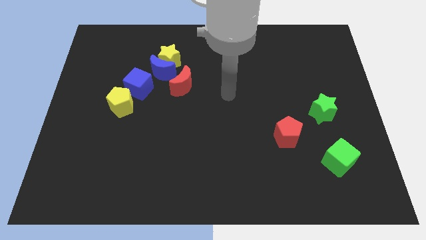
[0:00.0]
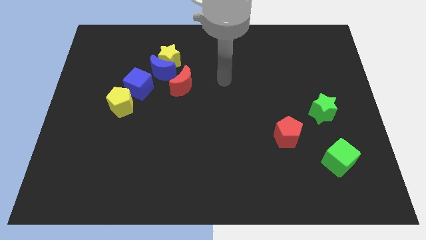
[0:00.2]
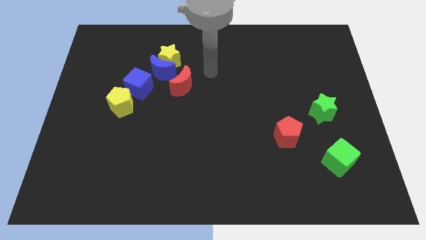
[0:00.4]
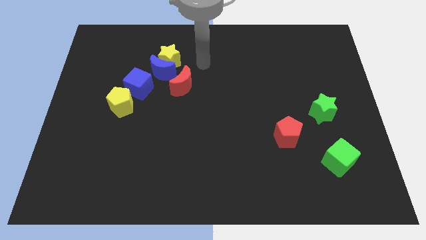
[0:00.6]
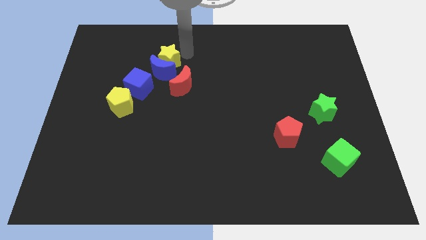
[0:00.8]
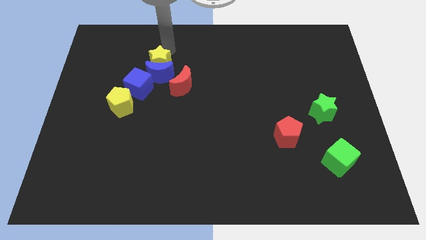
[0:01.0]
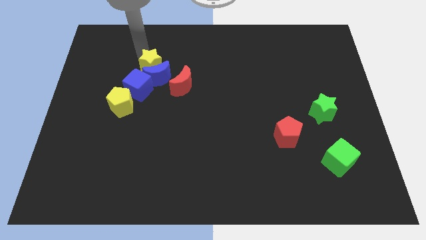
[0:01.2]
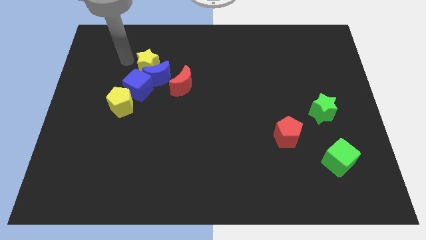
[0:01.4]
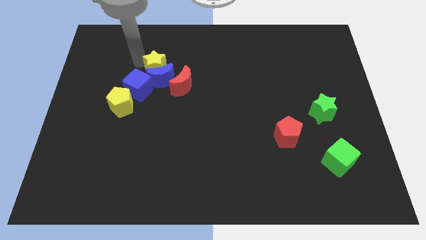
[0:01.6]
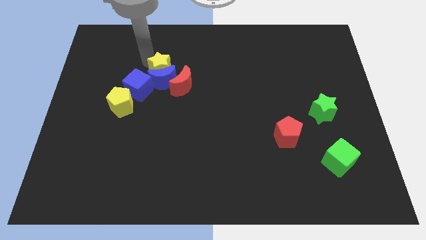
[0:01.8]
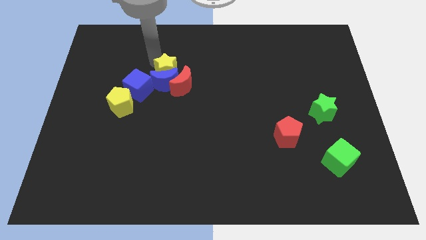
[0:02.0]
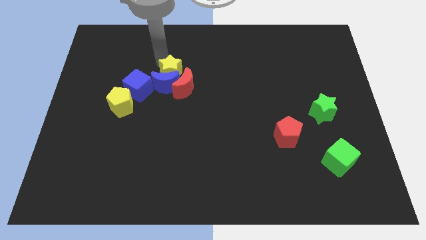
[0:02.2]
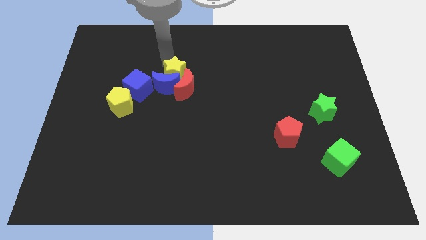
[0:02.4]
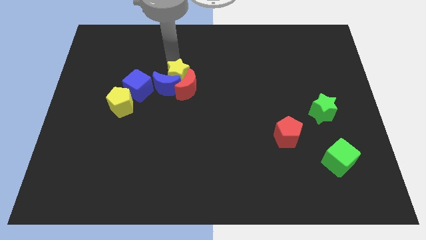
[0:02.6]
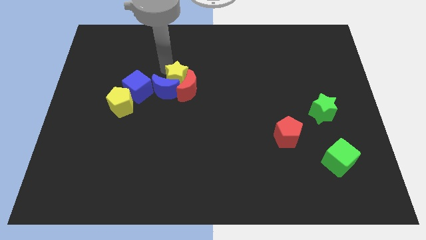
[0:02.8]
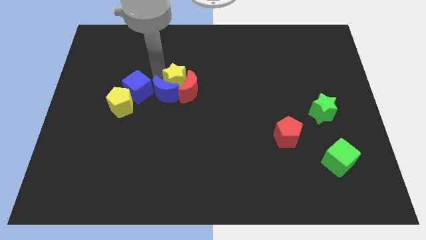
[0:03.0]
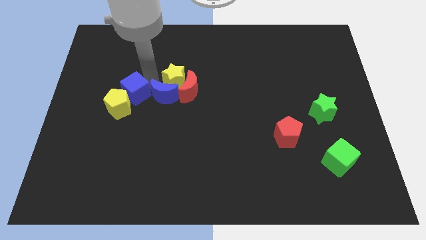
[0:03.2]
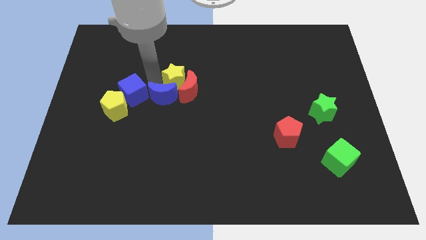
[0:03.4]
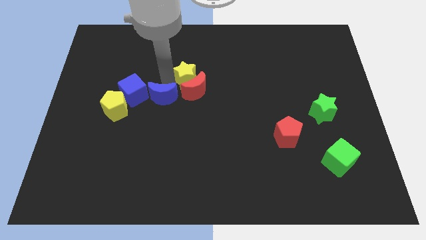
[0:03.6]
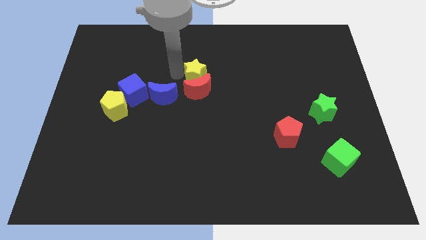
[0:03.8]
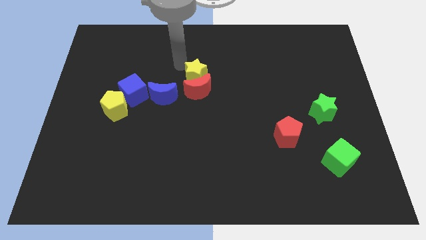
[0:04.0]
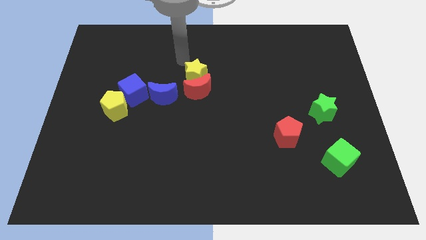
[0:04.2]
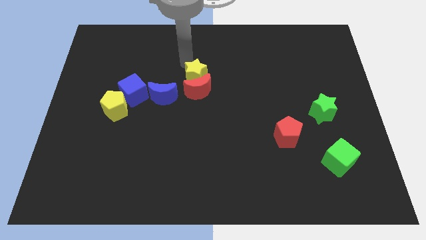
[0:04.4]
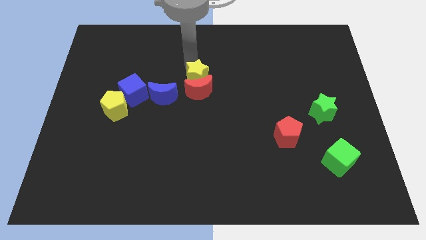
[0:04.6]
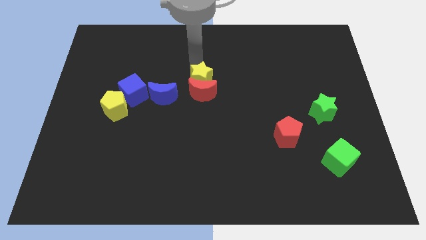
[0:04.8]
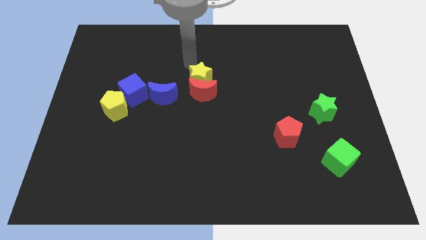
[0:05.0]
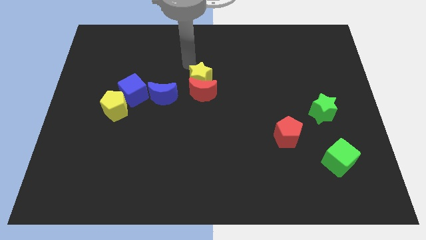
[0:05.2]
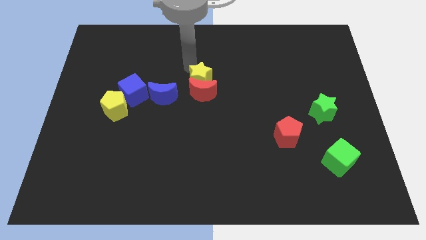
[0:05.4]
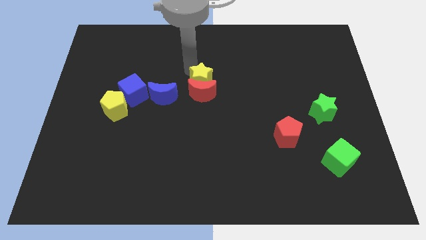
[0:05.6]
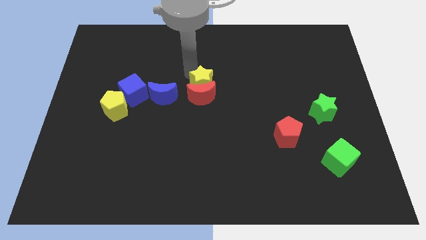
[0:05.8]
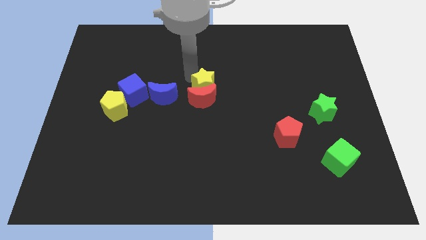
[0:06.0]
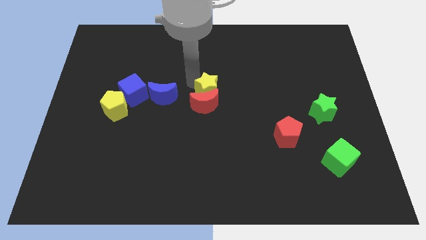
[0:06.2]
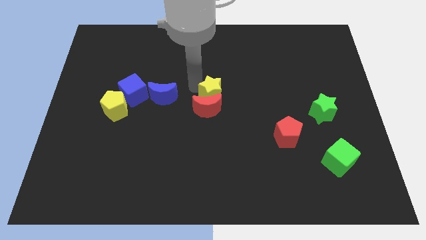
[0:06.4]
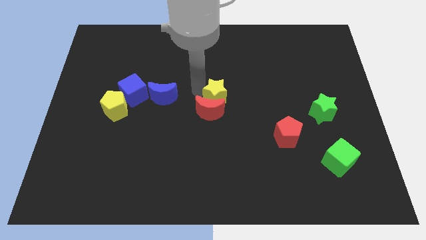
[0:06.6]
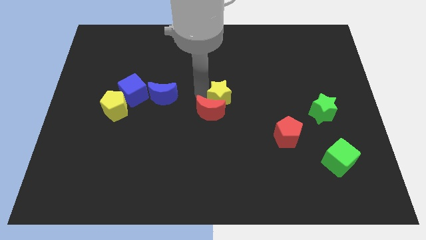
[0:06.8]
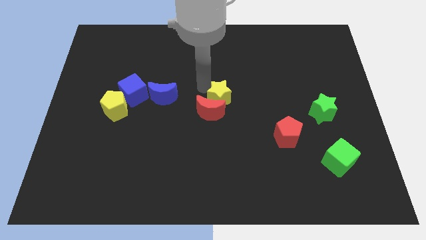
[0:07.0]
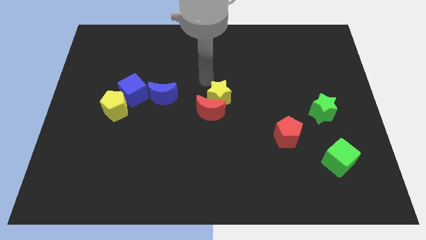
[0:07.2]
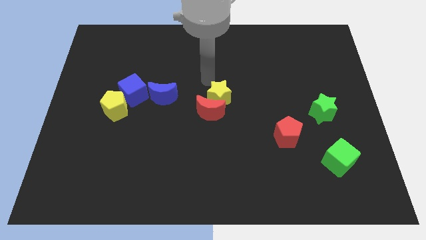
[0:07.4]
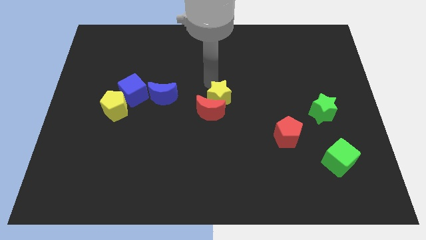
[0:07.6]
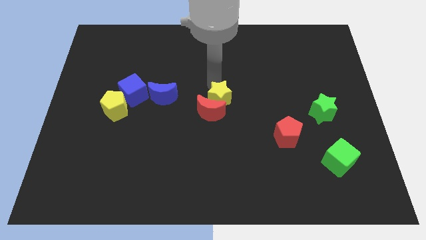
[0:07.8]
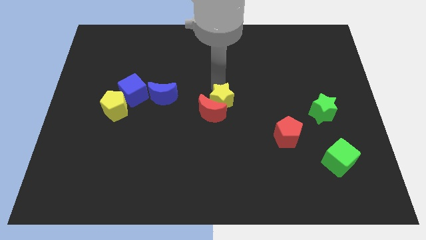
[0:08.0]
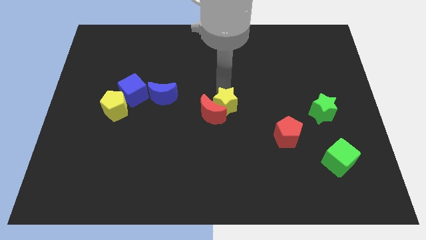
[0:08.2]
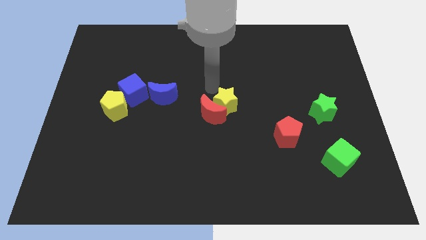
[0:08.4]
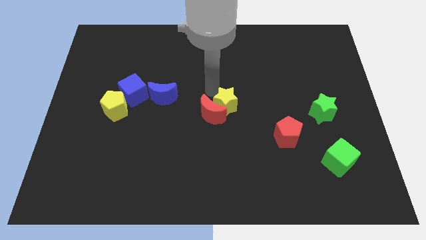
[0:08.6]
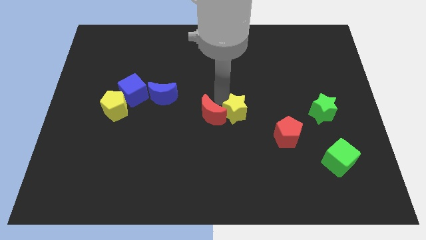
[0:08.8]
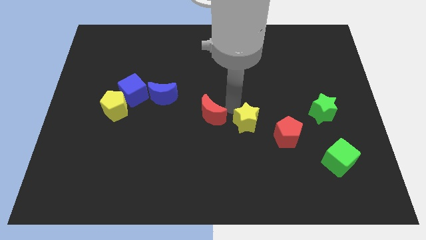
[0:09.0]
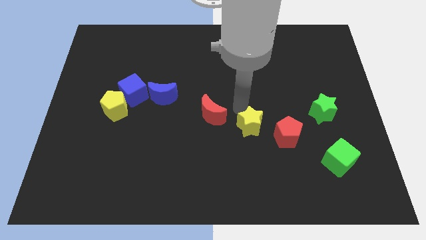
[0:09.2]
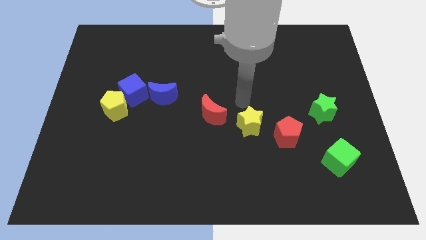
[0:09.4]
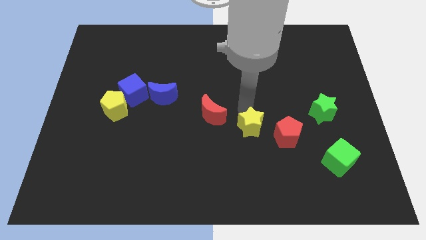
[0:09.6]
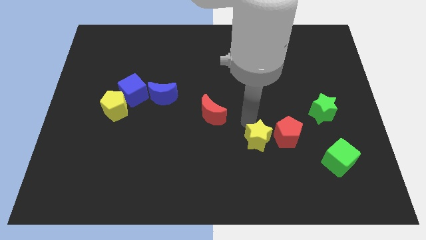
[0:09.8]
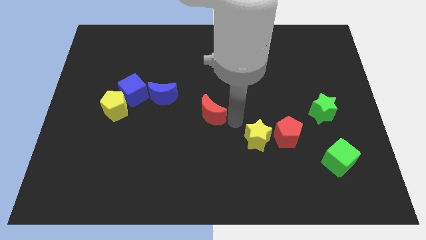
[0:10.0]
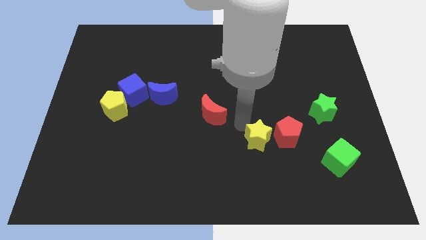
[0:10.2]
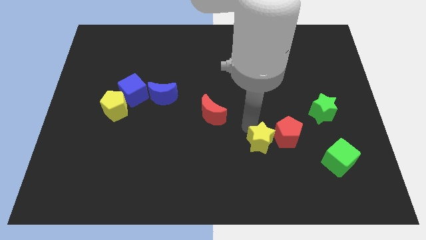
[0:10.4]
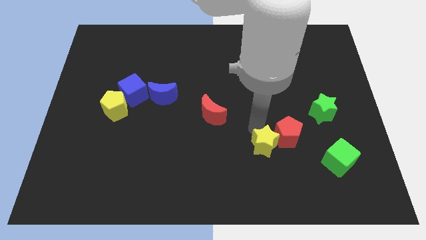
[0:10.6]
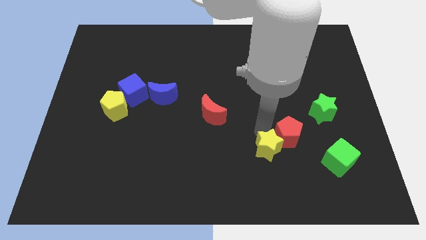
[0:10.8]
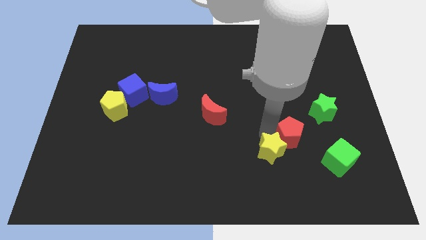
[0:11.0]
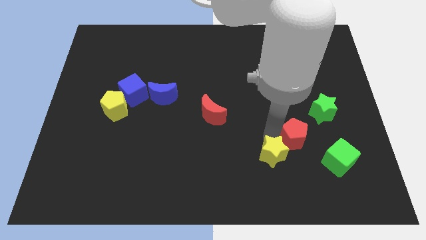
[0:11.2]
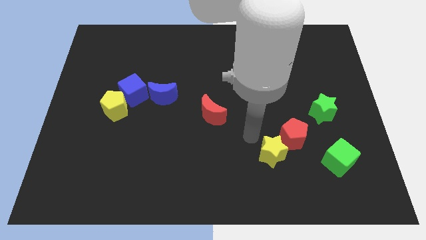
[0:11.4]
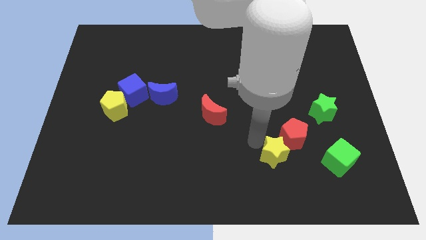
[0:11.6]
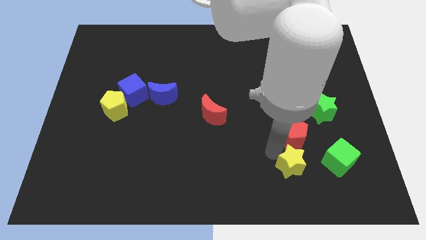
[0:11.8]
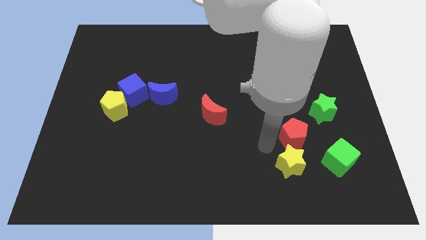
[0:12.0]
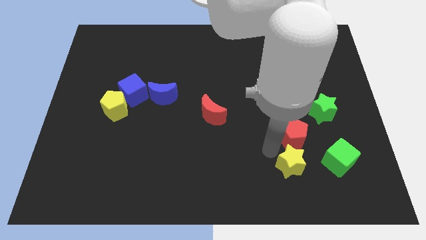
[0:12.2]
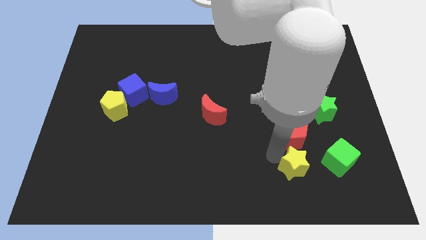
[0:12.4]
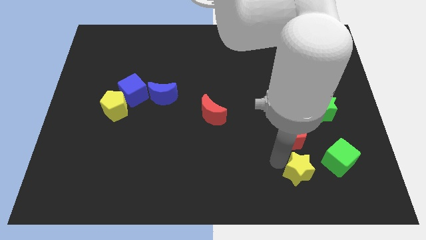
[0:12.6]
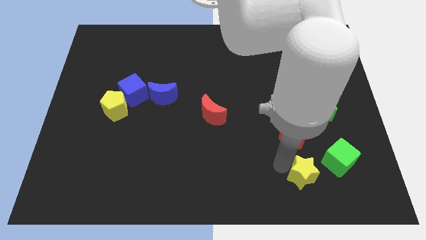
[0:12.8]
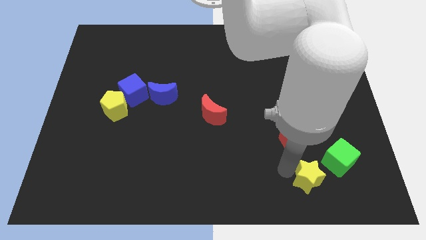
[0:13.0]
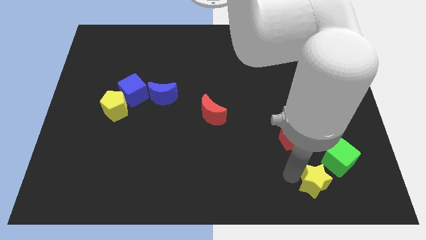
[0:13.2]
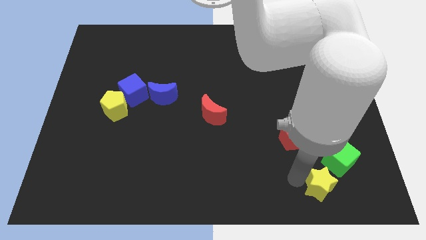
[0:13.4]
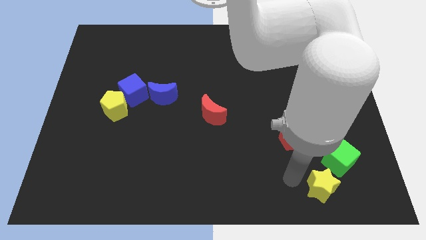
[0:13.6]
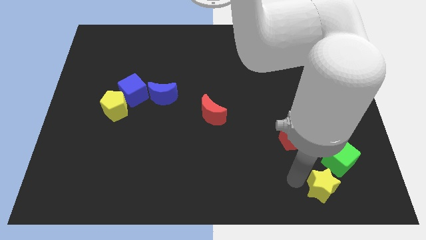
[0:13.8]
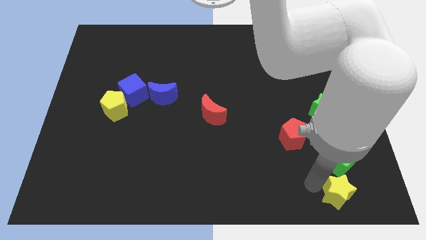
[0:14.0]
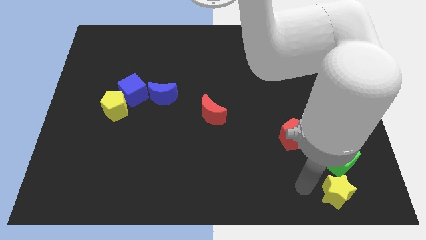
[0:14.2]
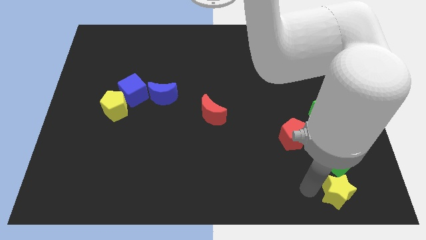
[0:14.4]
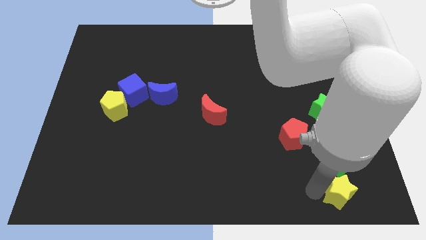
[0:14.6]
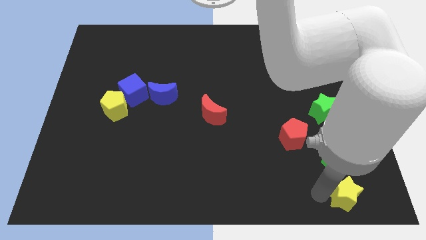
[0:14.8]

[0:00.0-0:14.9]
slide the yellow star to the lower right corner
